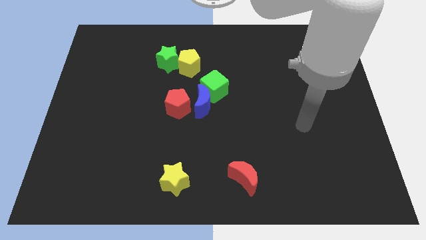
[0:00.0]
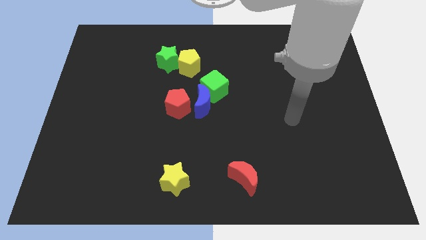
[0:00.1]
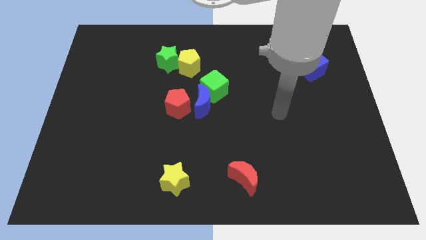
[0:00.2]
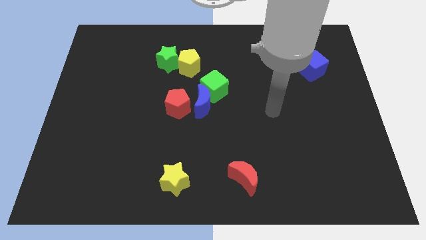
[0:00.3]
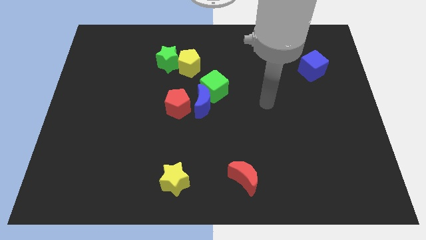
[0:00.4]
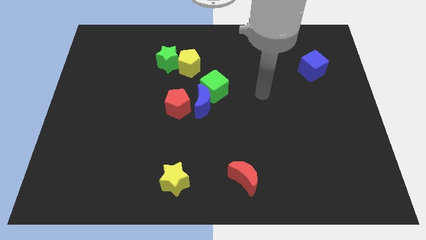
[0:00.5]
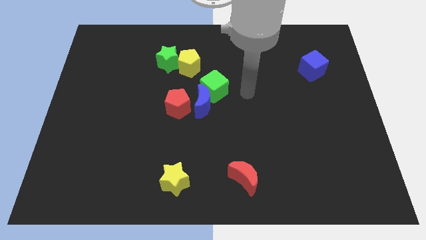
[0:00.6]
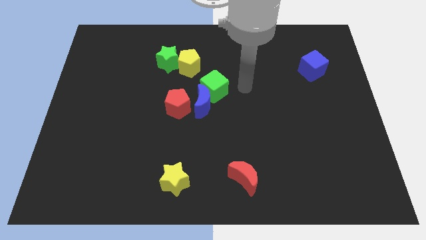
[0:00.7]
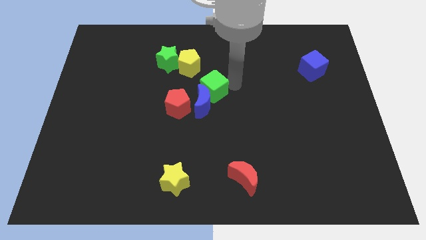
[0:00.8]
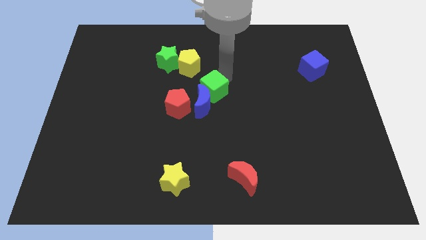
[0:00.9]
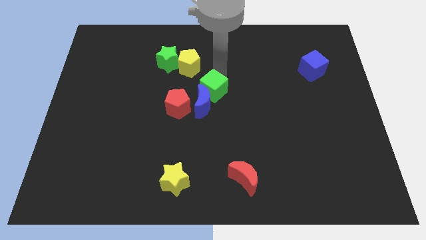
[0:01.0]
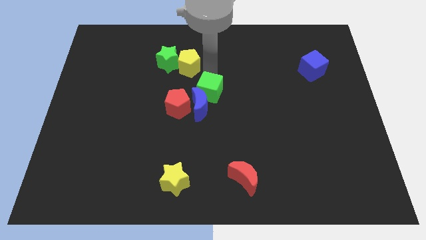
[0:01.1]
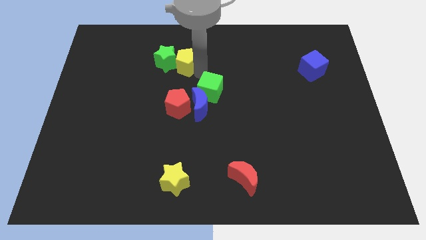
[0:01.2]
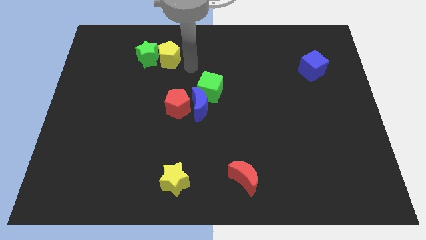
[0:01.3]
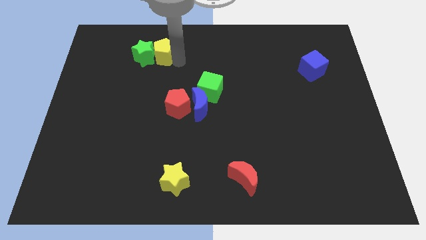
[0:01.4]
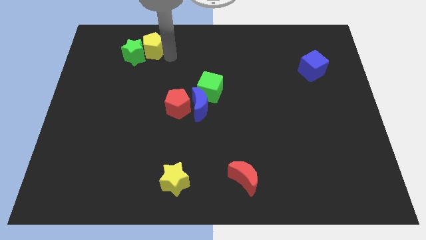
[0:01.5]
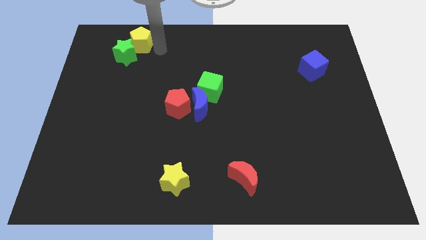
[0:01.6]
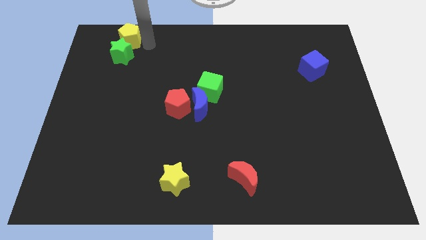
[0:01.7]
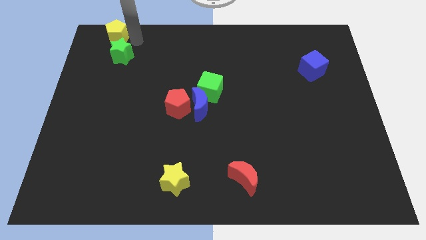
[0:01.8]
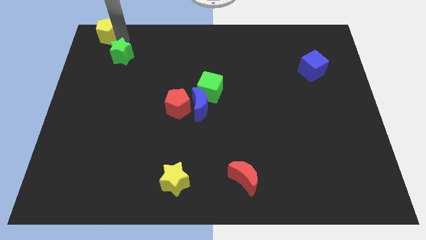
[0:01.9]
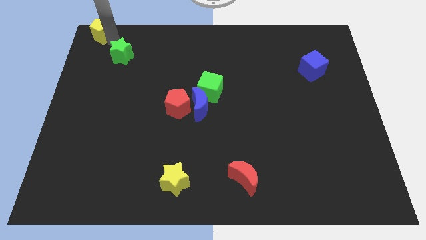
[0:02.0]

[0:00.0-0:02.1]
separate the green star from the yellow pentagon

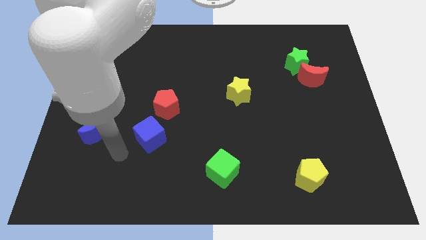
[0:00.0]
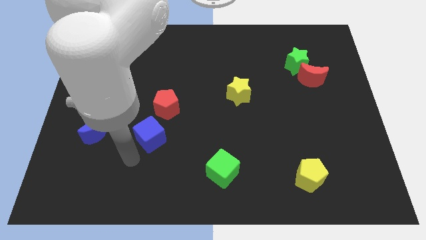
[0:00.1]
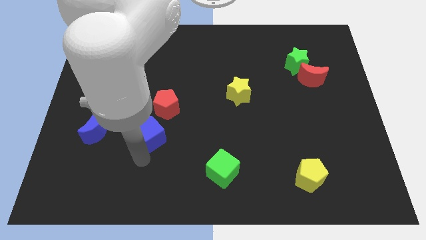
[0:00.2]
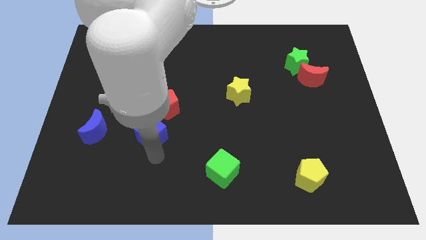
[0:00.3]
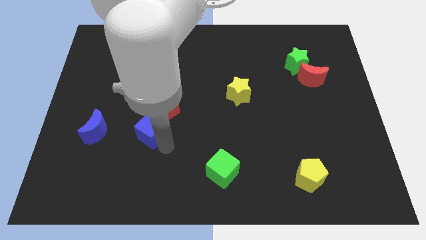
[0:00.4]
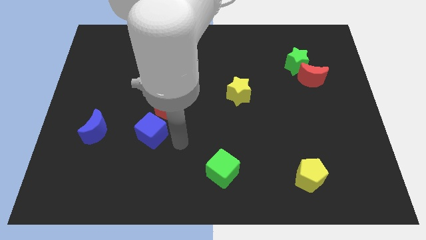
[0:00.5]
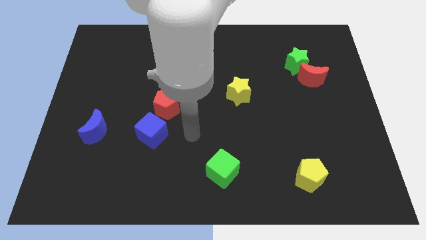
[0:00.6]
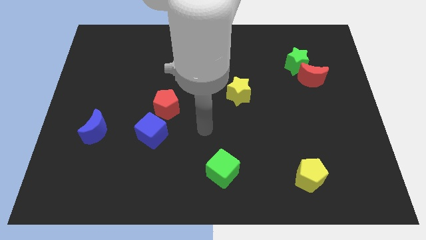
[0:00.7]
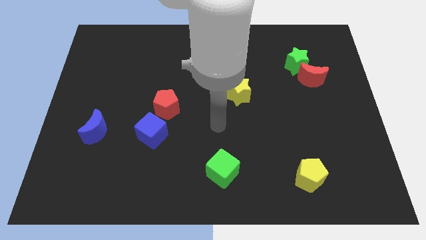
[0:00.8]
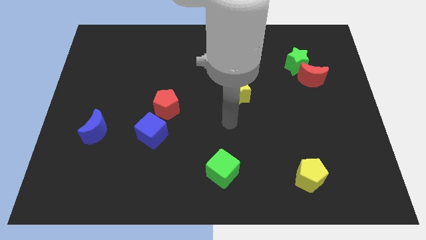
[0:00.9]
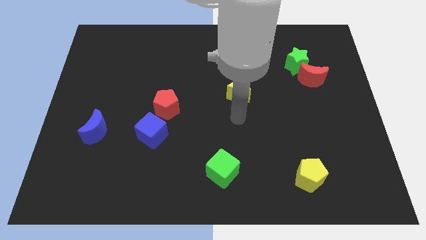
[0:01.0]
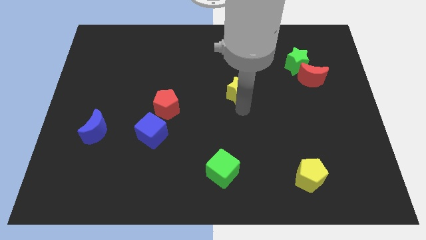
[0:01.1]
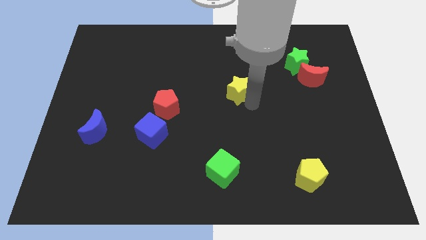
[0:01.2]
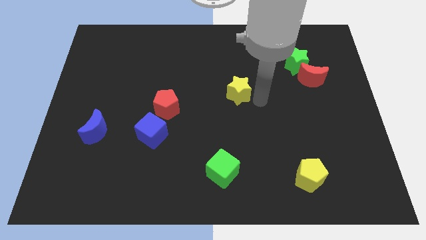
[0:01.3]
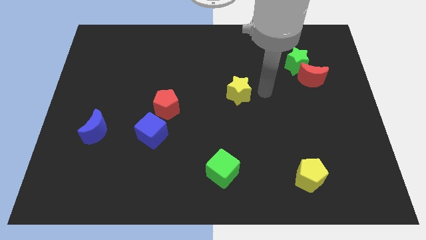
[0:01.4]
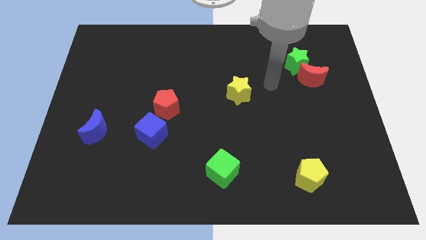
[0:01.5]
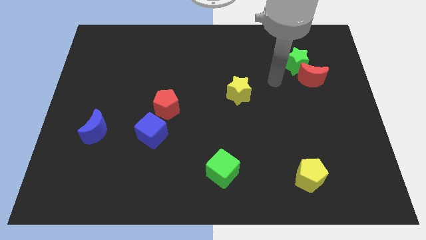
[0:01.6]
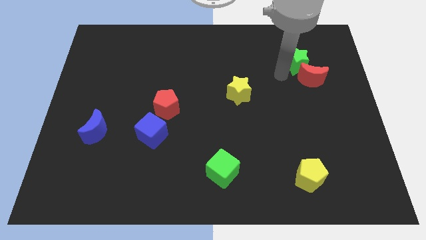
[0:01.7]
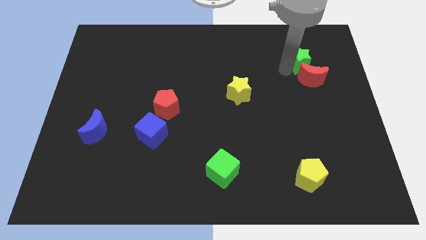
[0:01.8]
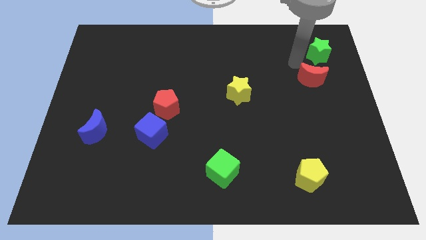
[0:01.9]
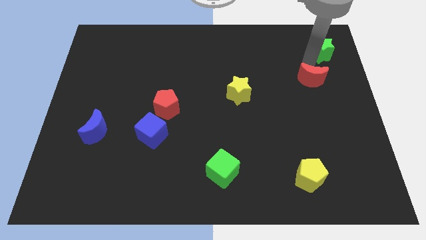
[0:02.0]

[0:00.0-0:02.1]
pull the red moon apart from the green star

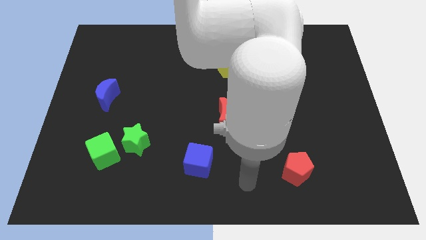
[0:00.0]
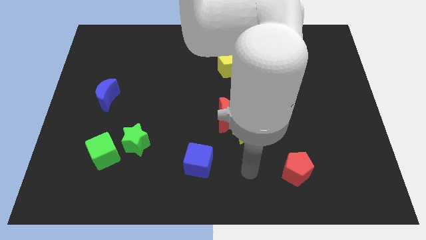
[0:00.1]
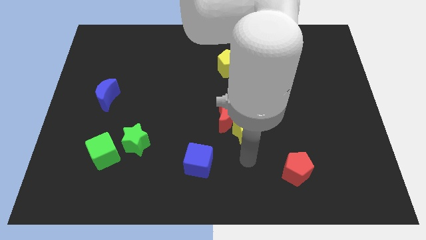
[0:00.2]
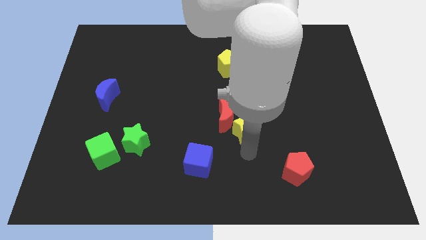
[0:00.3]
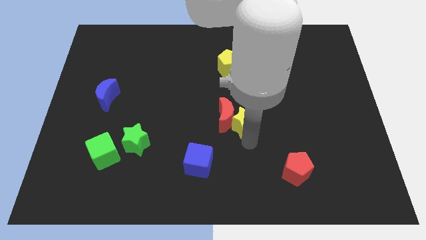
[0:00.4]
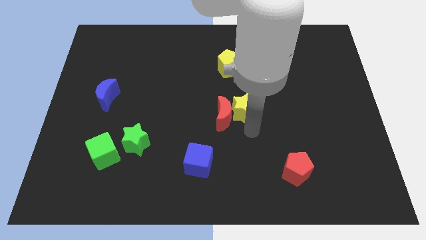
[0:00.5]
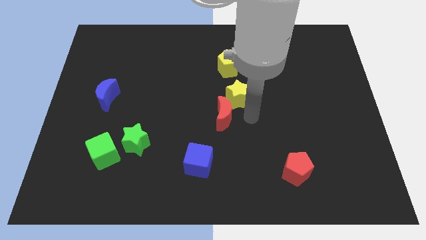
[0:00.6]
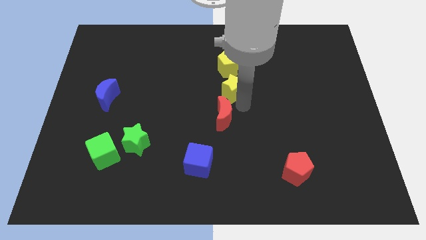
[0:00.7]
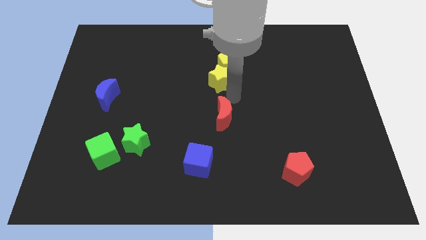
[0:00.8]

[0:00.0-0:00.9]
separate the red moon from the yellow star

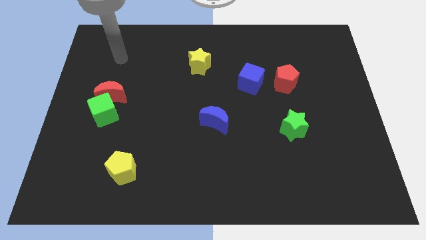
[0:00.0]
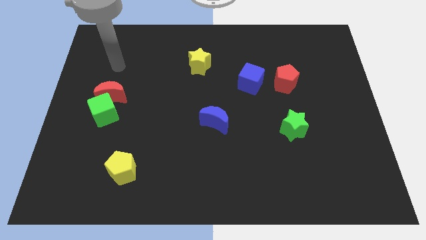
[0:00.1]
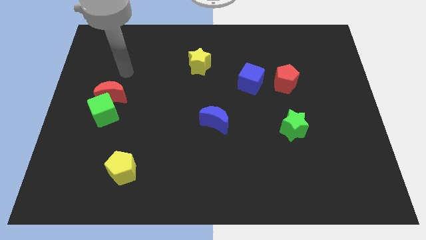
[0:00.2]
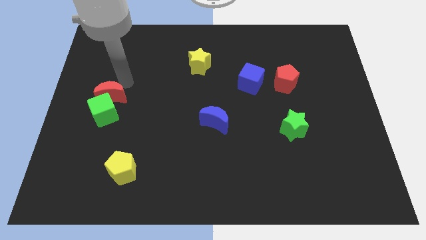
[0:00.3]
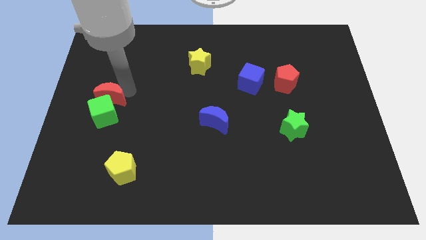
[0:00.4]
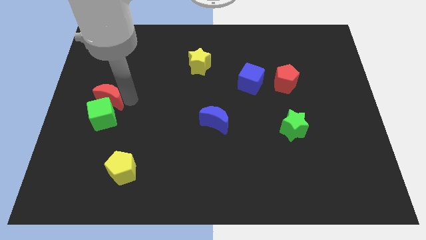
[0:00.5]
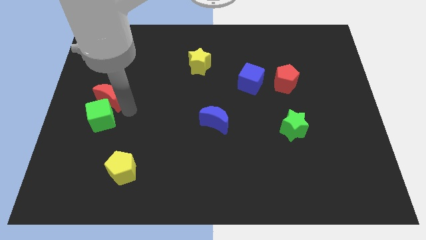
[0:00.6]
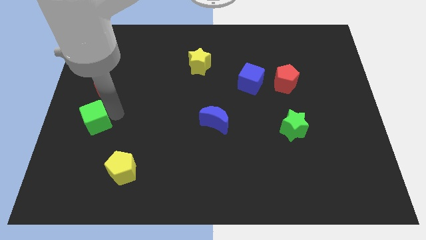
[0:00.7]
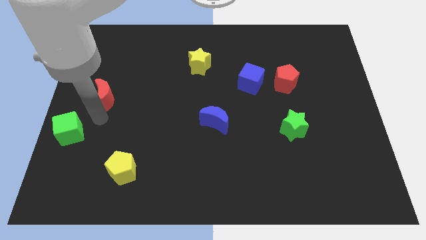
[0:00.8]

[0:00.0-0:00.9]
pull the red moon apart from the green cube

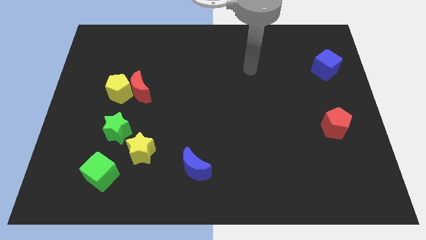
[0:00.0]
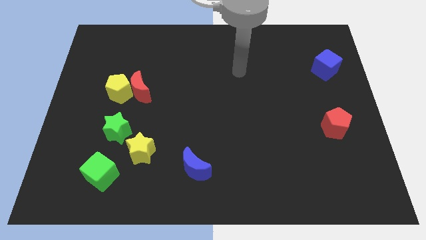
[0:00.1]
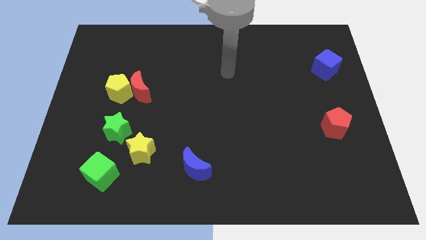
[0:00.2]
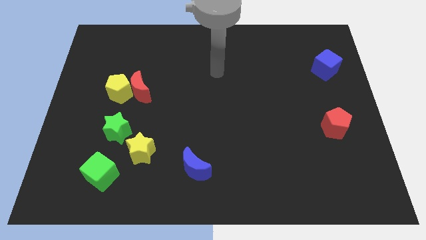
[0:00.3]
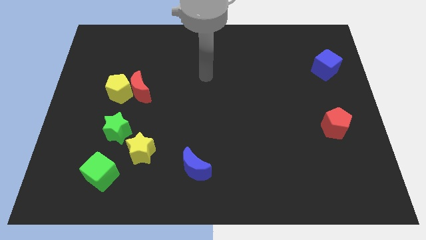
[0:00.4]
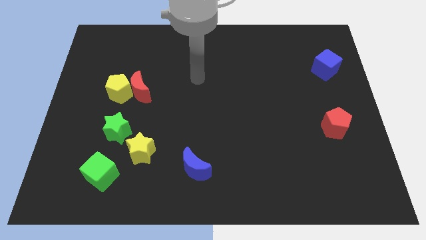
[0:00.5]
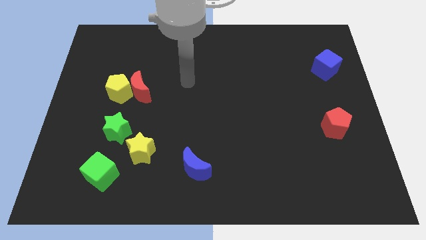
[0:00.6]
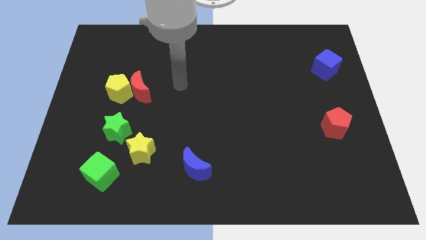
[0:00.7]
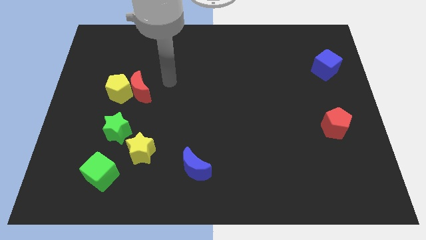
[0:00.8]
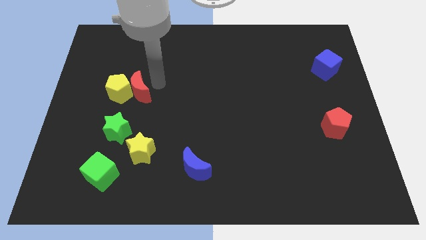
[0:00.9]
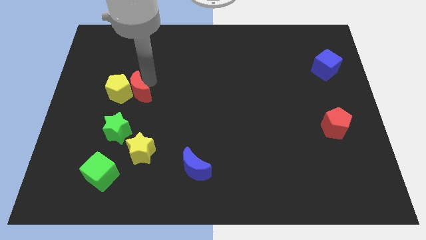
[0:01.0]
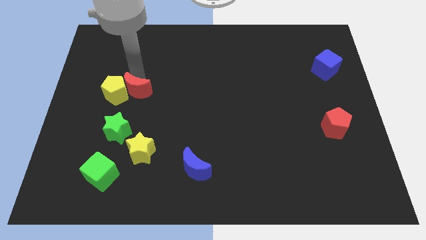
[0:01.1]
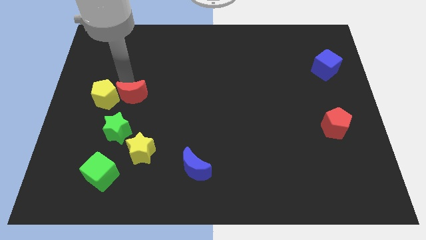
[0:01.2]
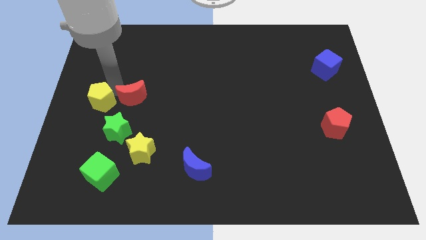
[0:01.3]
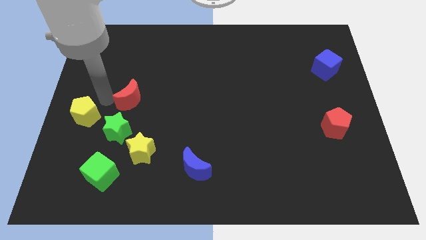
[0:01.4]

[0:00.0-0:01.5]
separate the red moon from the yellow pentagon

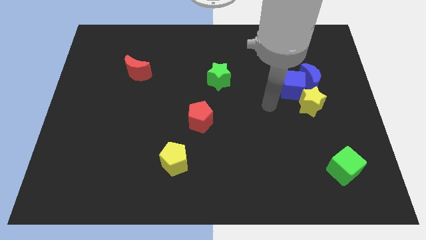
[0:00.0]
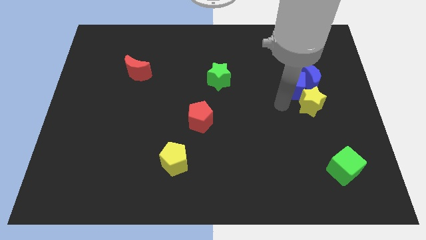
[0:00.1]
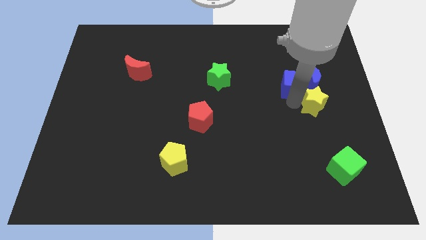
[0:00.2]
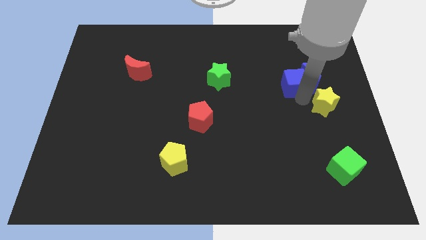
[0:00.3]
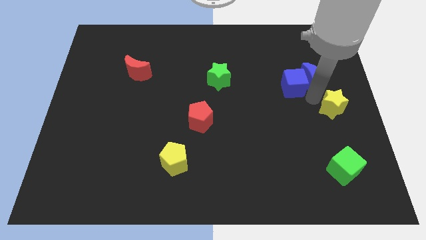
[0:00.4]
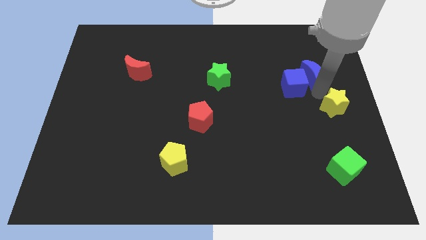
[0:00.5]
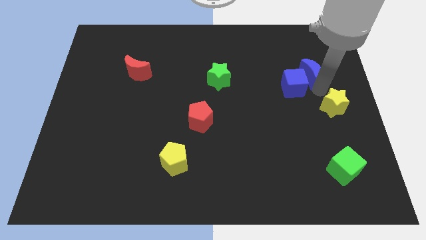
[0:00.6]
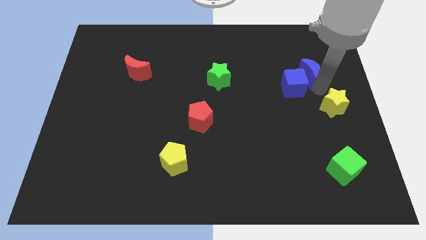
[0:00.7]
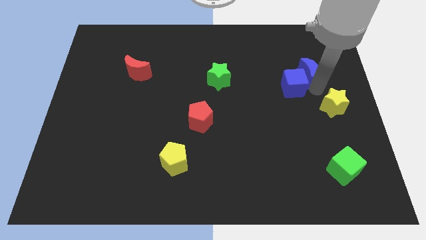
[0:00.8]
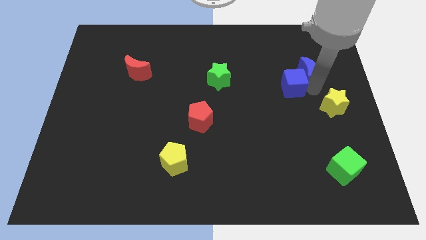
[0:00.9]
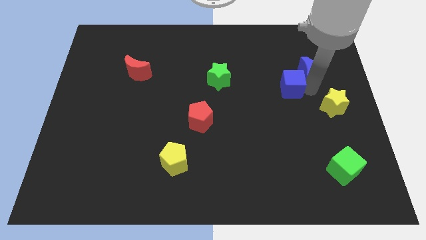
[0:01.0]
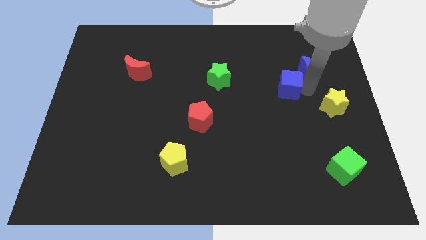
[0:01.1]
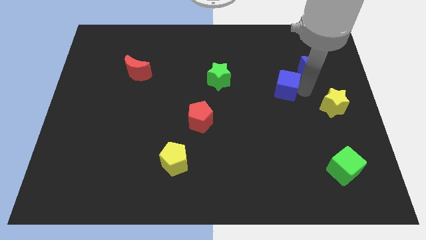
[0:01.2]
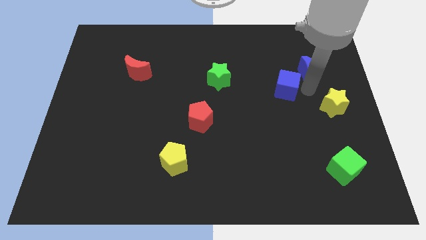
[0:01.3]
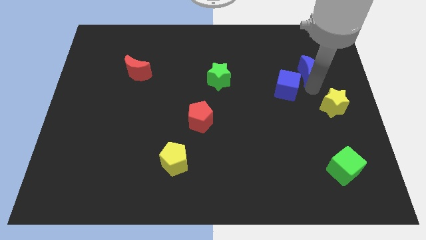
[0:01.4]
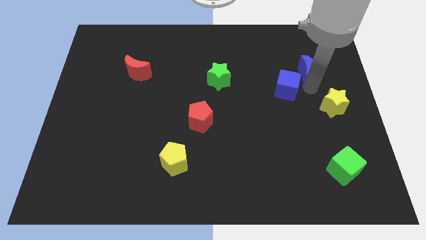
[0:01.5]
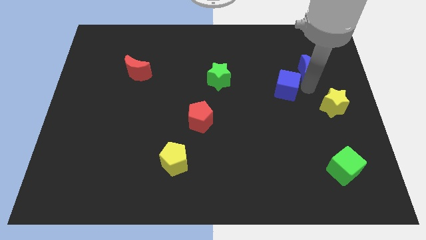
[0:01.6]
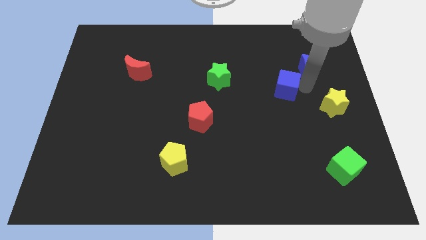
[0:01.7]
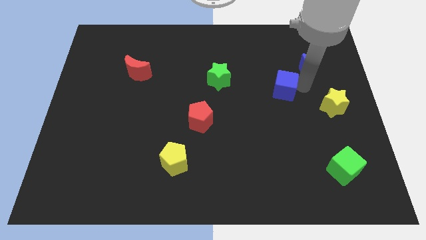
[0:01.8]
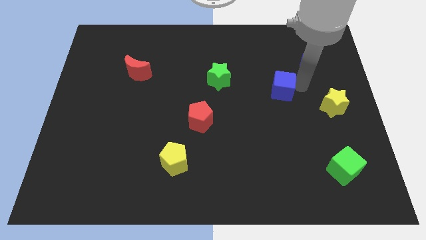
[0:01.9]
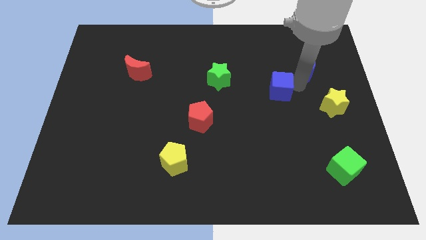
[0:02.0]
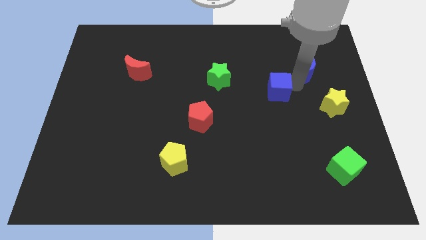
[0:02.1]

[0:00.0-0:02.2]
pull the blue cube apart from the blue moon and yellow star
